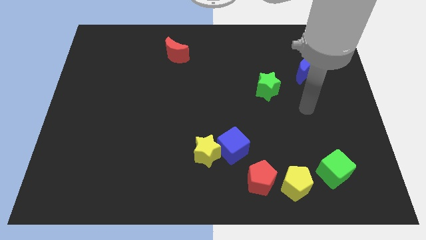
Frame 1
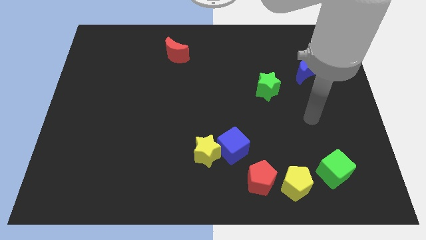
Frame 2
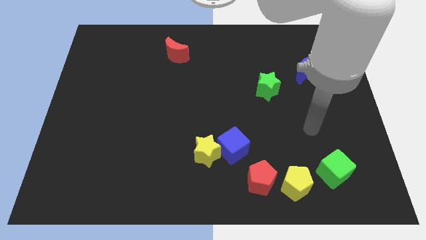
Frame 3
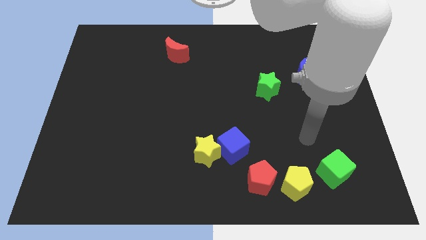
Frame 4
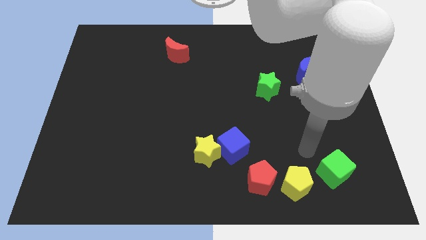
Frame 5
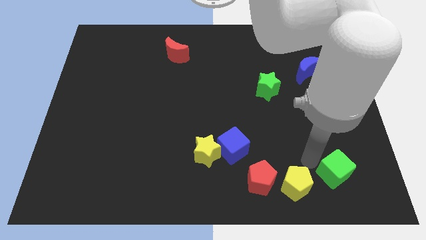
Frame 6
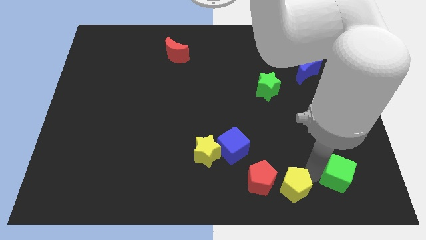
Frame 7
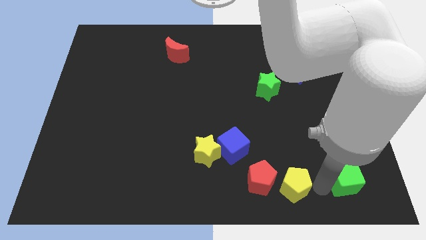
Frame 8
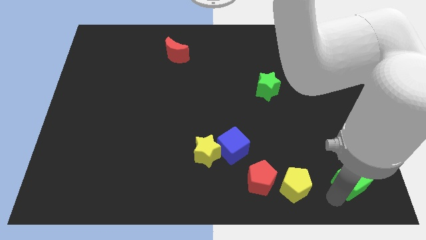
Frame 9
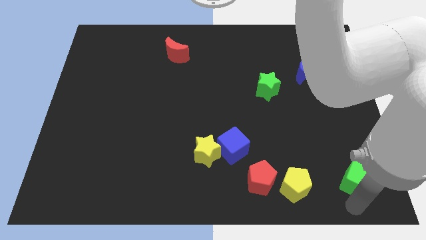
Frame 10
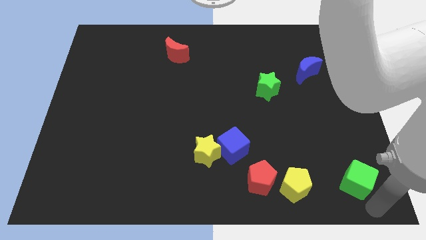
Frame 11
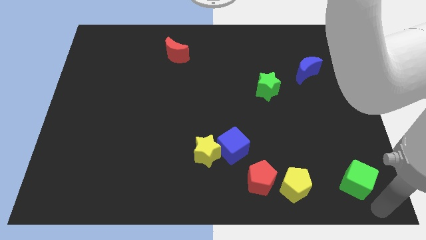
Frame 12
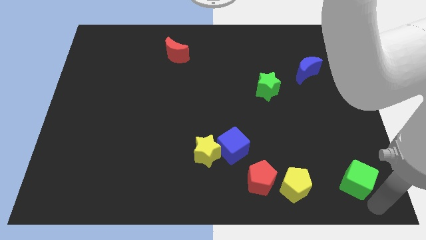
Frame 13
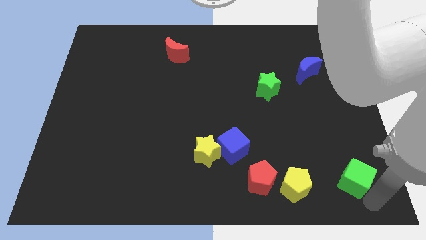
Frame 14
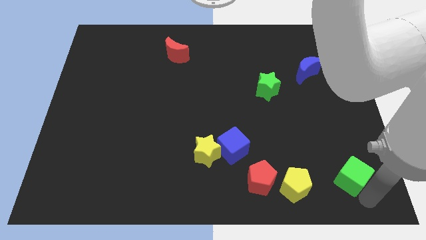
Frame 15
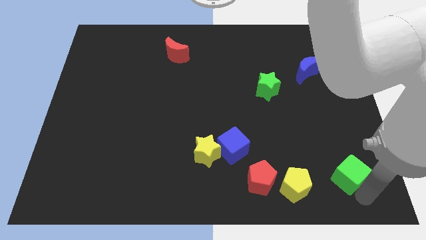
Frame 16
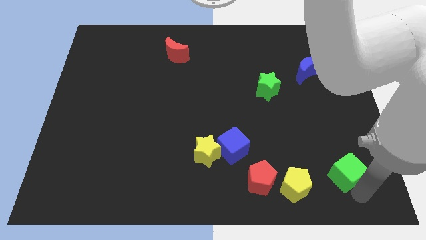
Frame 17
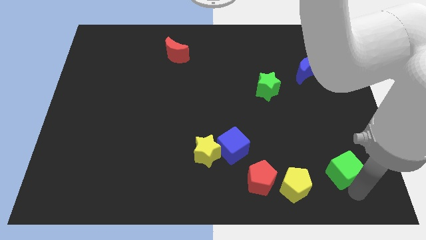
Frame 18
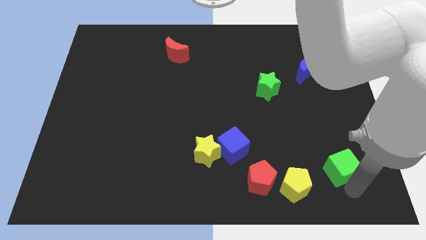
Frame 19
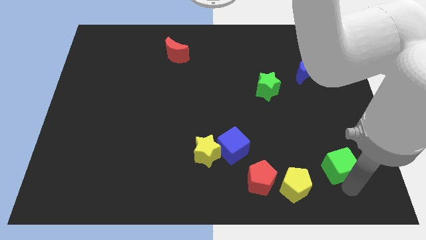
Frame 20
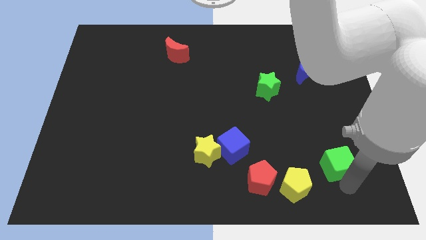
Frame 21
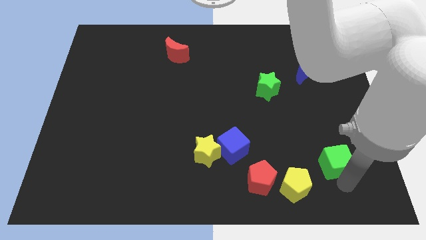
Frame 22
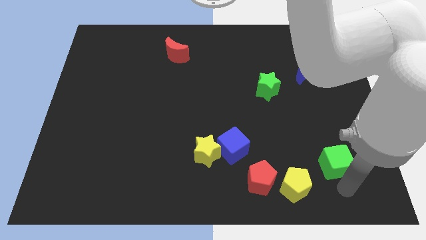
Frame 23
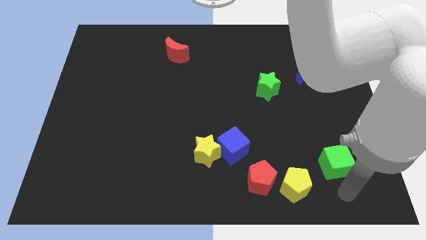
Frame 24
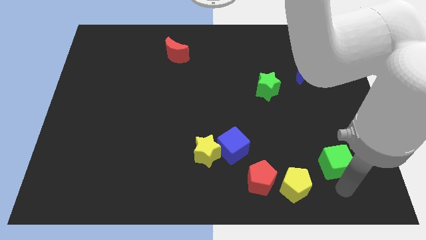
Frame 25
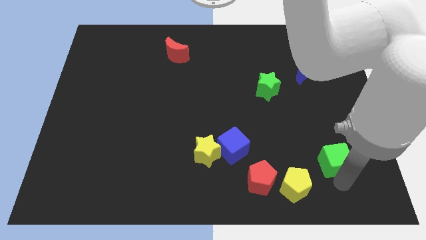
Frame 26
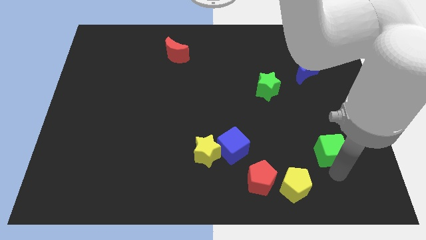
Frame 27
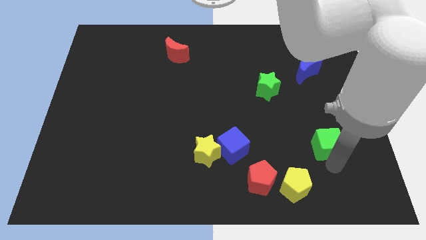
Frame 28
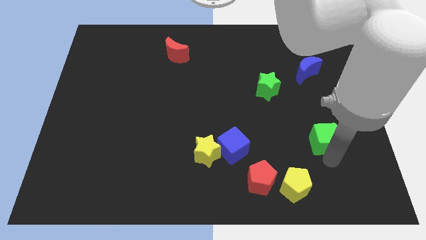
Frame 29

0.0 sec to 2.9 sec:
slide the green cube a bit upwards

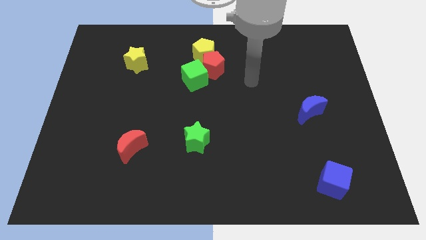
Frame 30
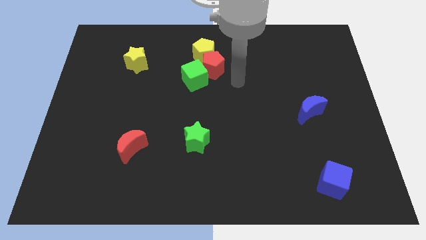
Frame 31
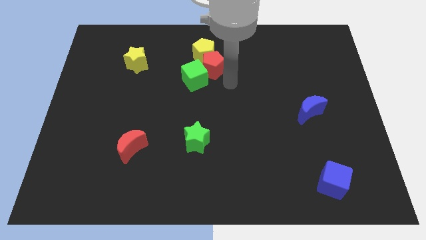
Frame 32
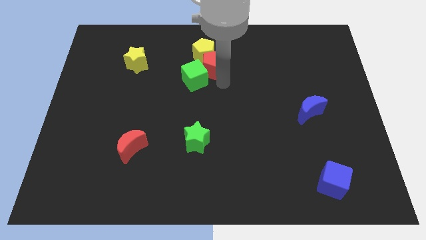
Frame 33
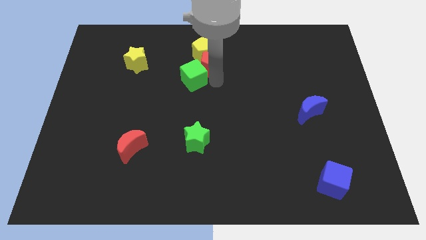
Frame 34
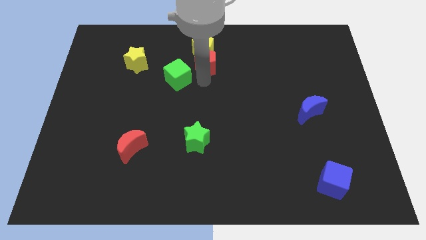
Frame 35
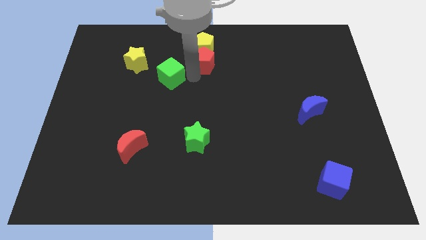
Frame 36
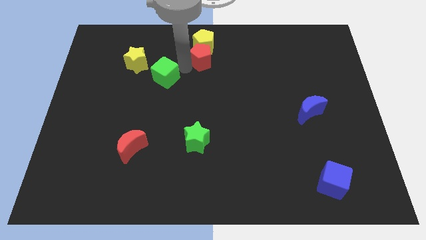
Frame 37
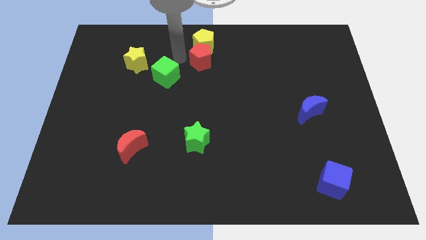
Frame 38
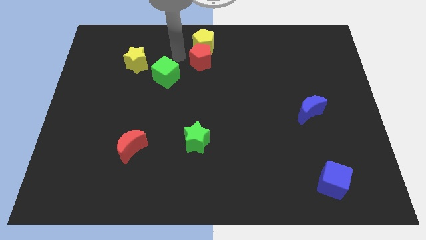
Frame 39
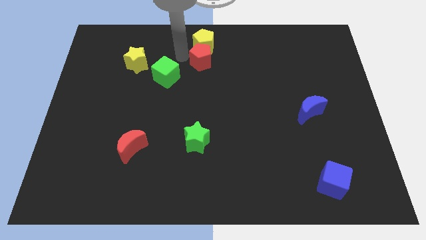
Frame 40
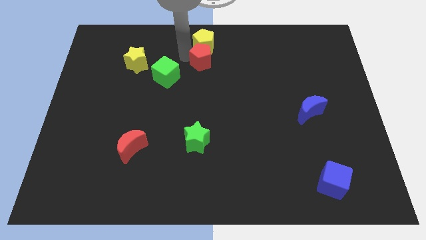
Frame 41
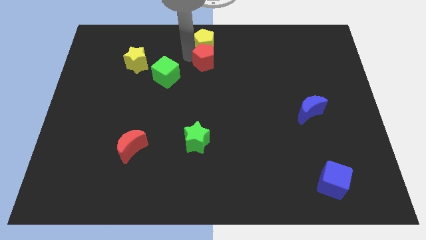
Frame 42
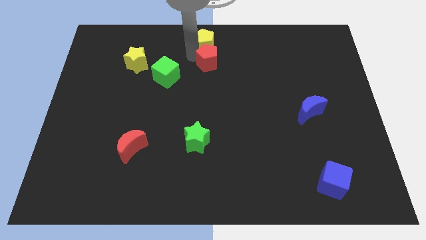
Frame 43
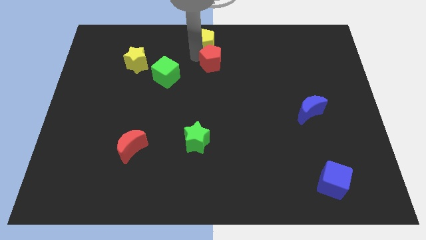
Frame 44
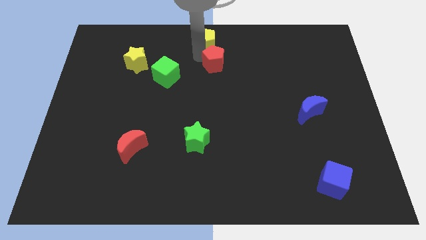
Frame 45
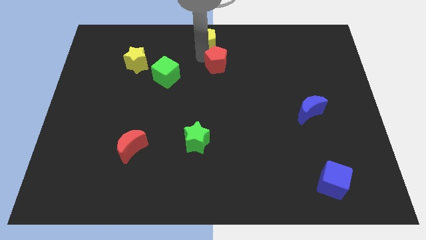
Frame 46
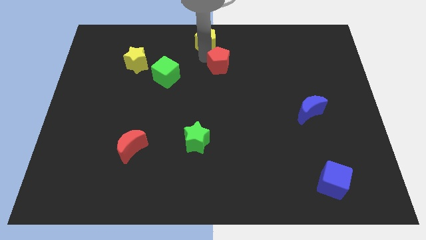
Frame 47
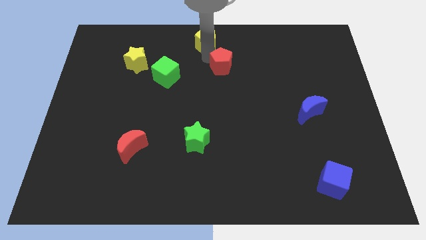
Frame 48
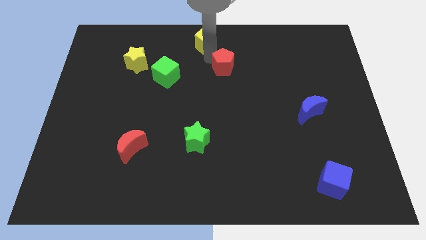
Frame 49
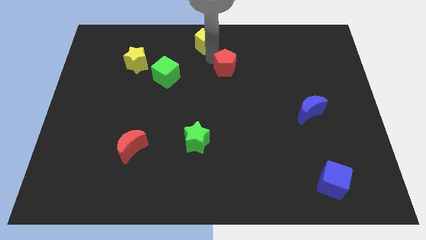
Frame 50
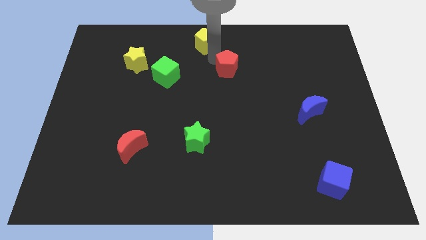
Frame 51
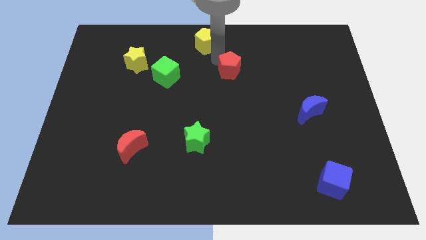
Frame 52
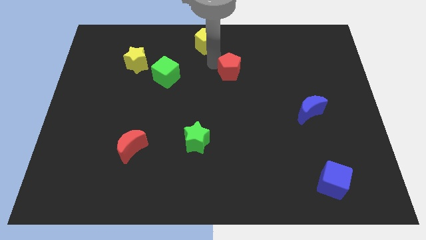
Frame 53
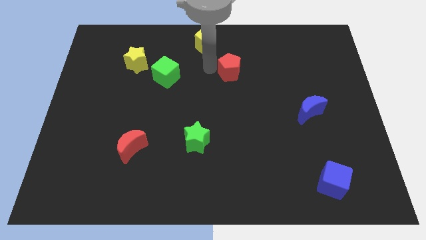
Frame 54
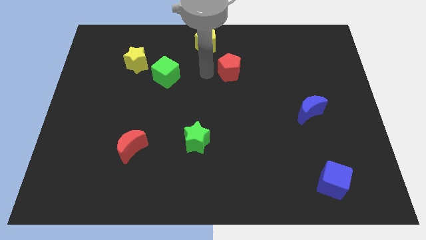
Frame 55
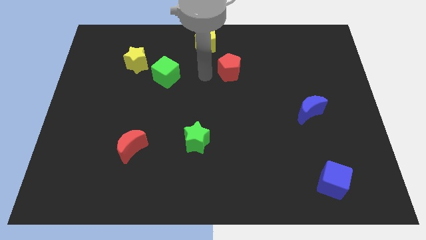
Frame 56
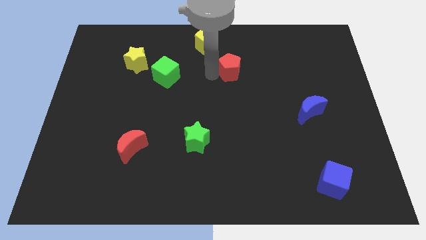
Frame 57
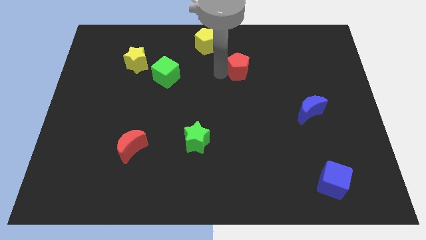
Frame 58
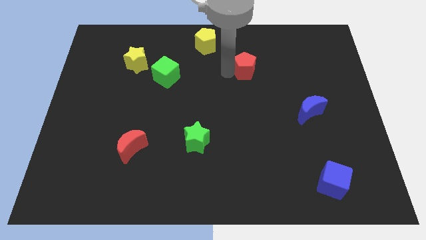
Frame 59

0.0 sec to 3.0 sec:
slightly slide the red pentagon to the right

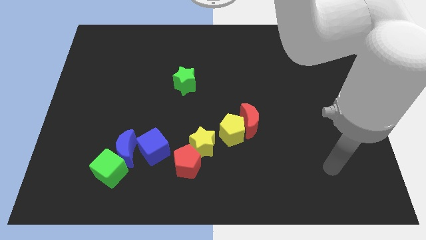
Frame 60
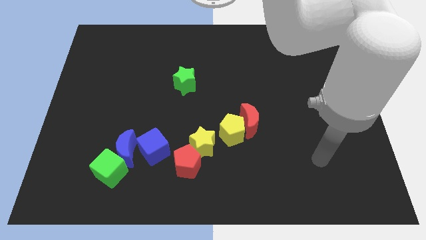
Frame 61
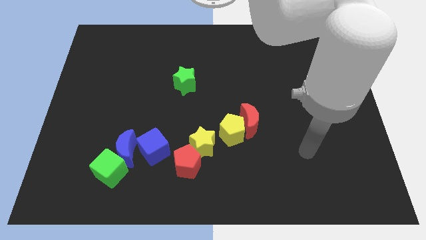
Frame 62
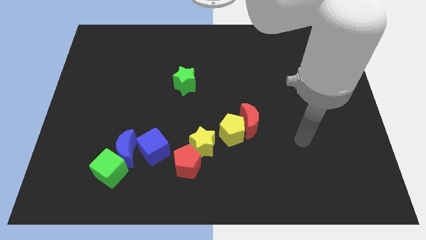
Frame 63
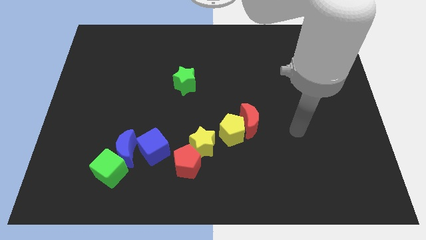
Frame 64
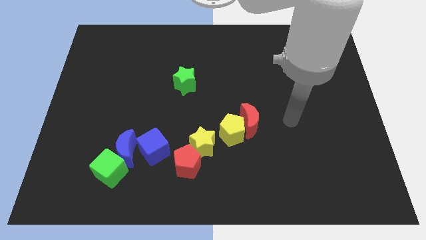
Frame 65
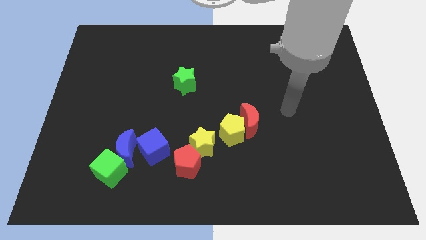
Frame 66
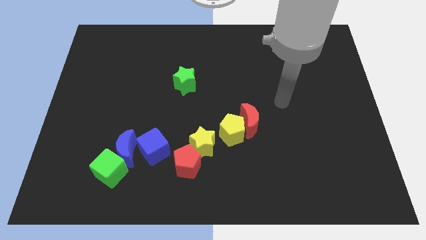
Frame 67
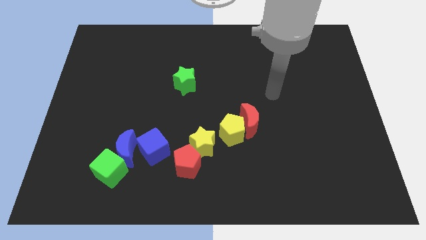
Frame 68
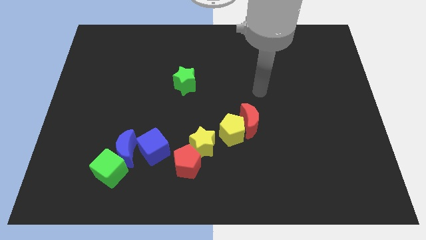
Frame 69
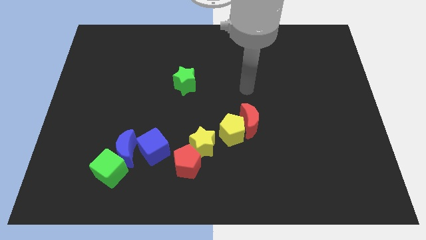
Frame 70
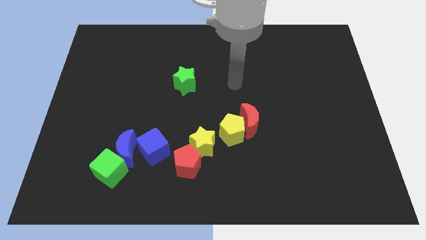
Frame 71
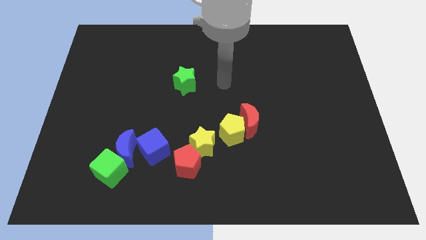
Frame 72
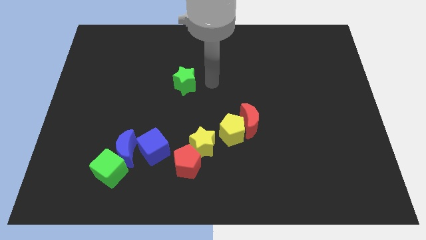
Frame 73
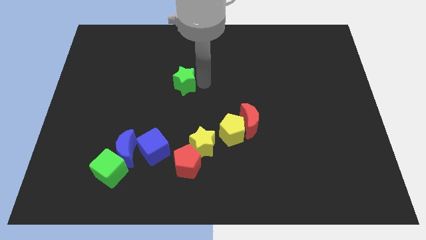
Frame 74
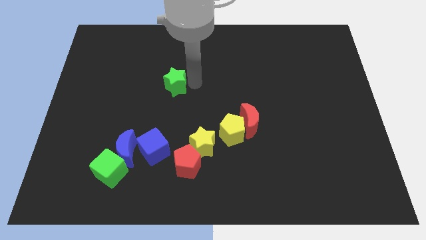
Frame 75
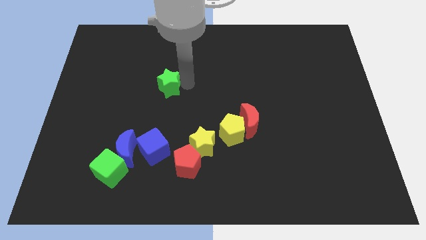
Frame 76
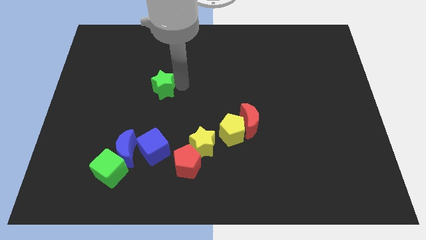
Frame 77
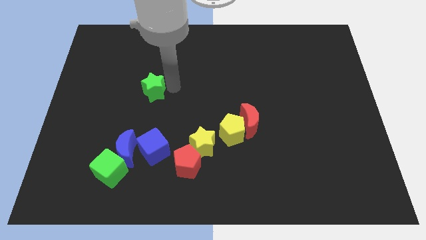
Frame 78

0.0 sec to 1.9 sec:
move the green star a little to the left

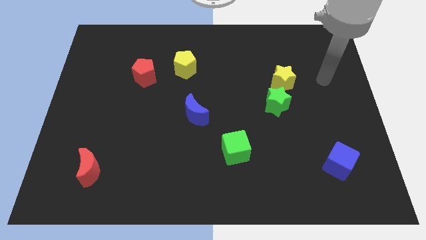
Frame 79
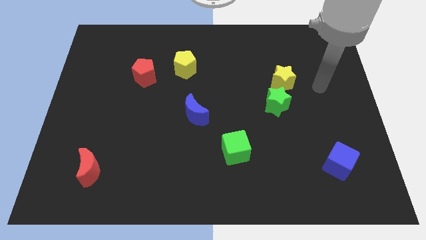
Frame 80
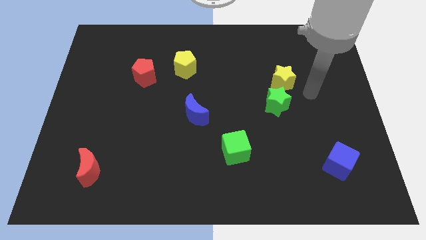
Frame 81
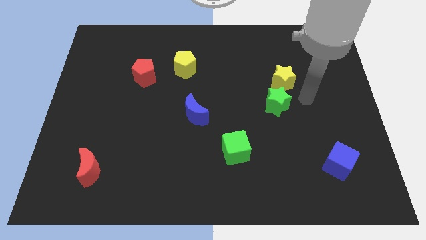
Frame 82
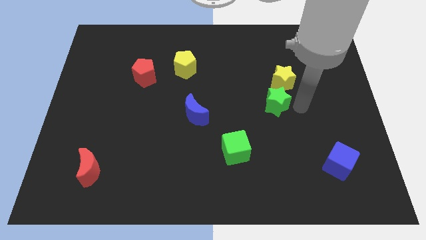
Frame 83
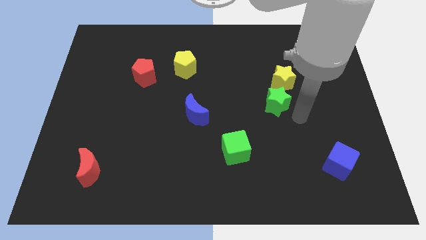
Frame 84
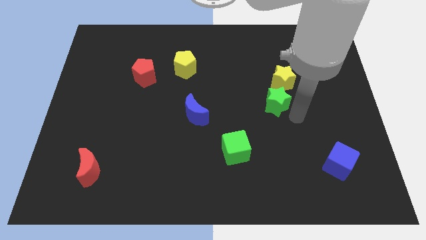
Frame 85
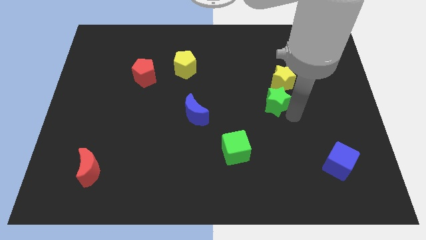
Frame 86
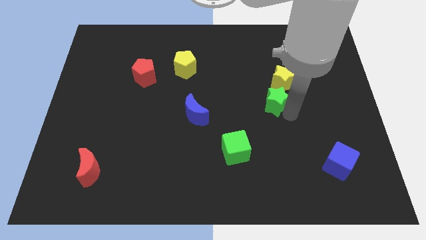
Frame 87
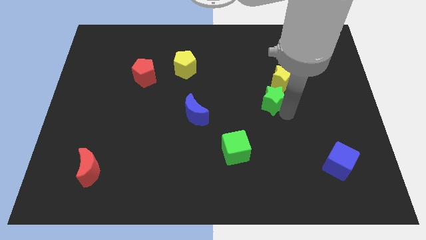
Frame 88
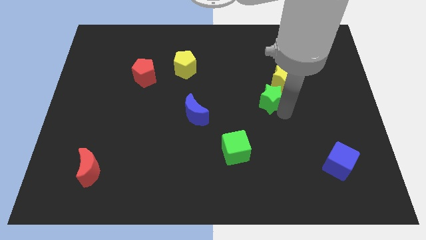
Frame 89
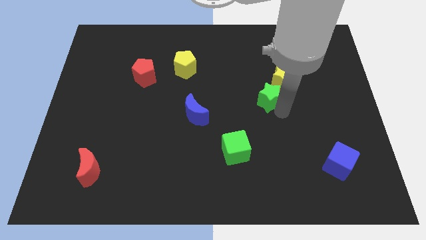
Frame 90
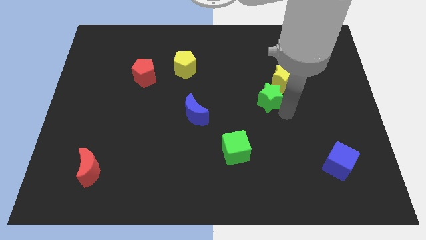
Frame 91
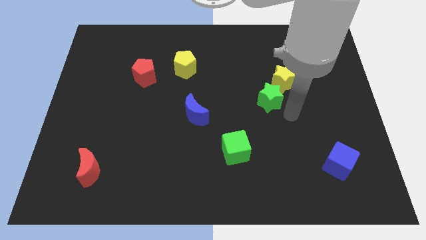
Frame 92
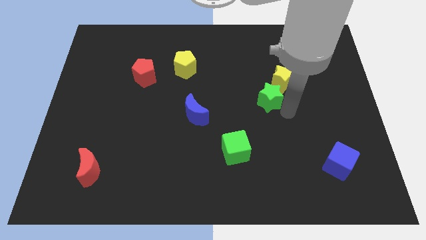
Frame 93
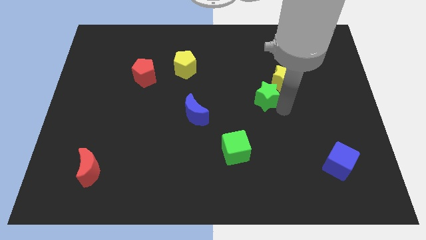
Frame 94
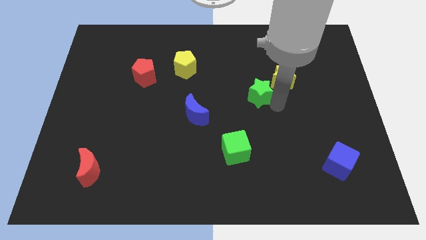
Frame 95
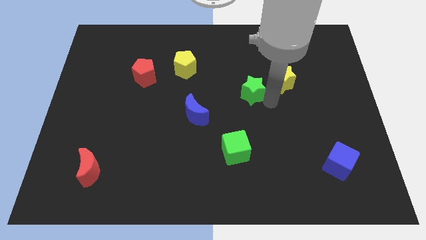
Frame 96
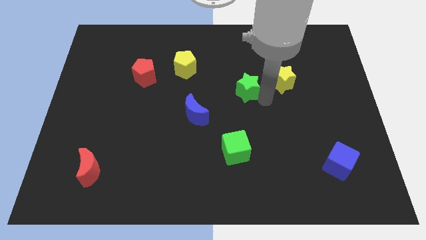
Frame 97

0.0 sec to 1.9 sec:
slightly move the green star up and to the left
